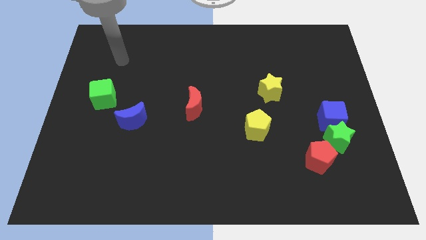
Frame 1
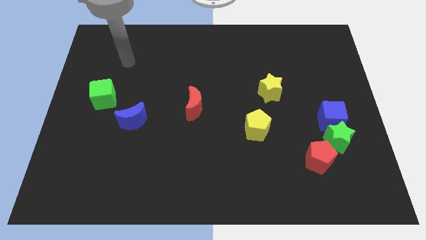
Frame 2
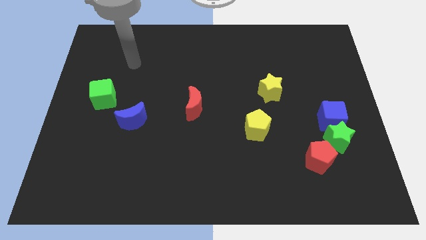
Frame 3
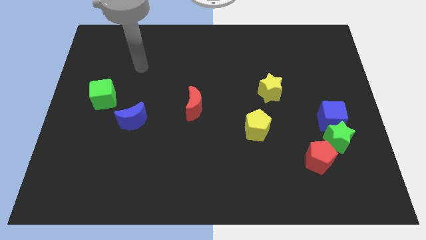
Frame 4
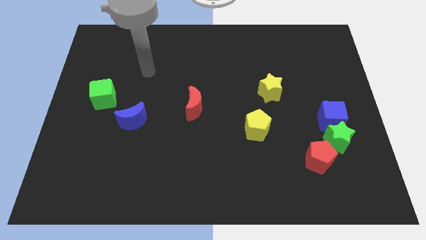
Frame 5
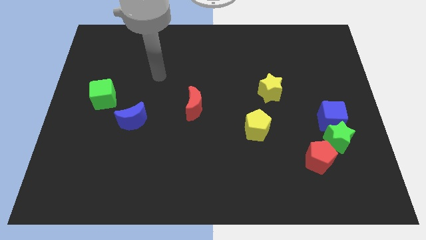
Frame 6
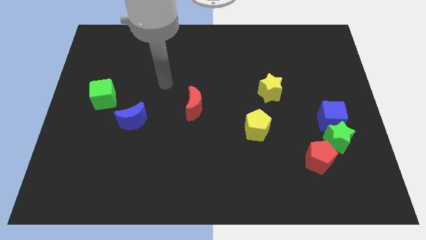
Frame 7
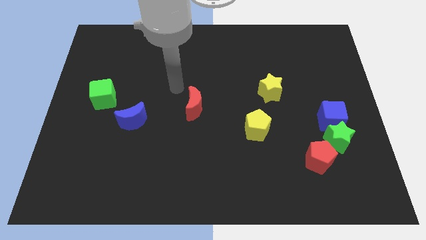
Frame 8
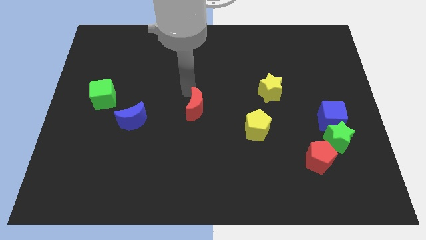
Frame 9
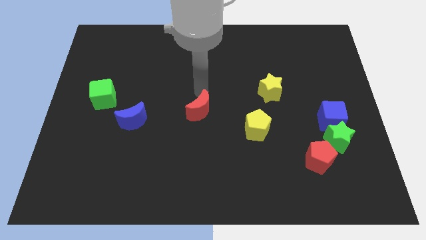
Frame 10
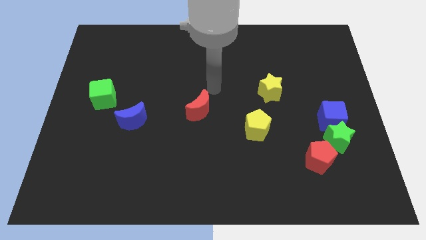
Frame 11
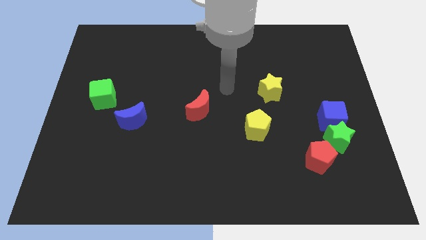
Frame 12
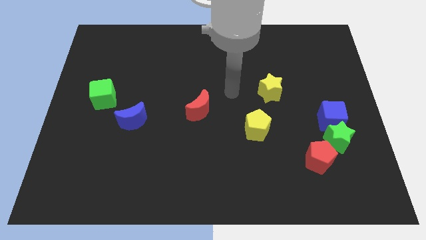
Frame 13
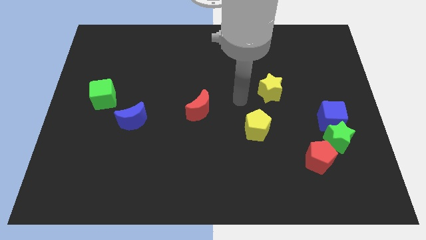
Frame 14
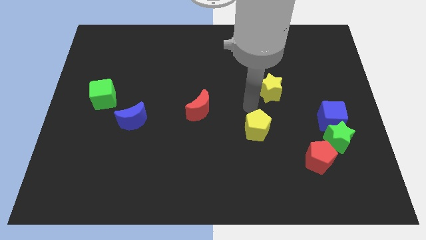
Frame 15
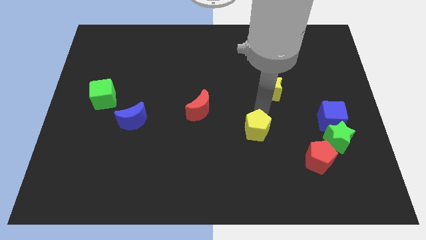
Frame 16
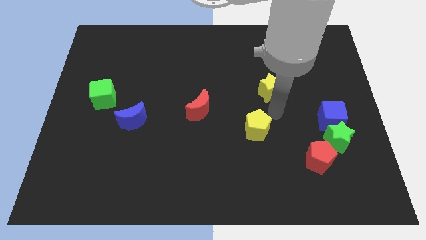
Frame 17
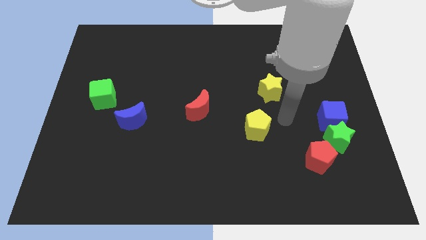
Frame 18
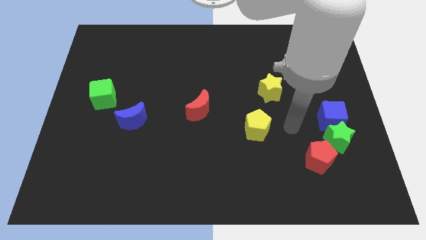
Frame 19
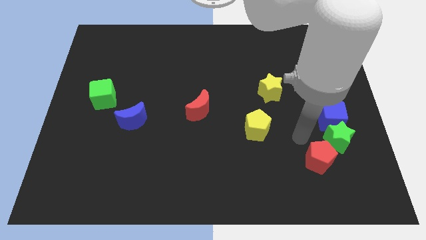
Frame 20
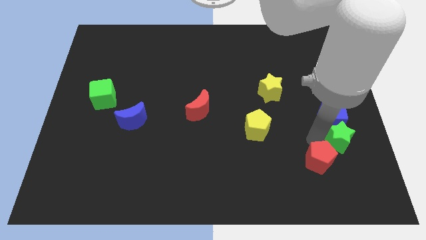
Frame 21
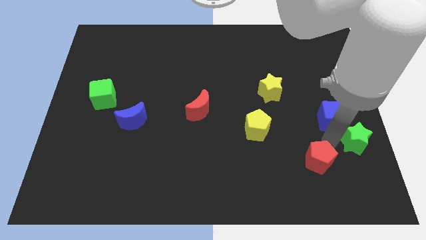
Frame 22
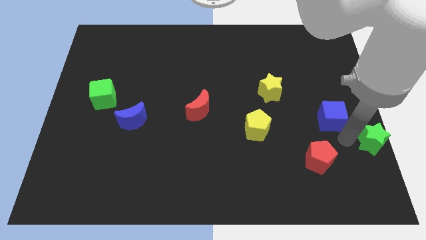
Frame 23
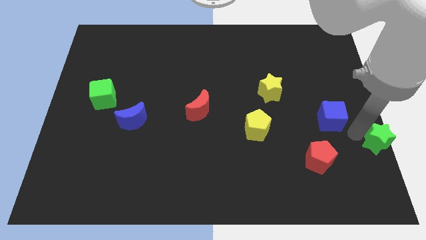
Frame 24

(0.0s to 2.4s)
pull the blue cube apart from the green star

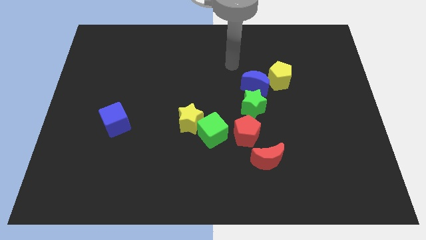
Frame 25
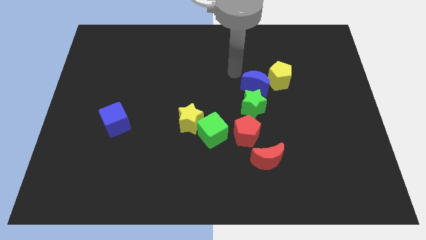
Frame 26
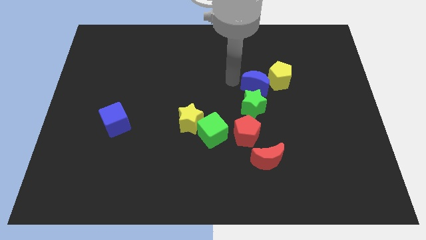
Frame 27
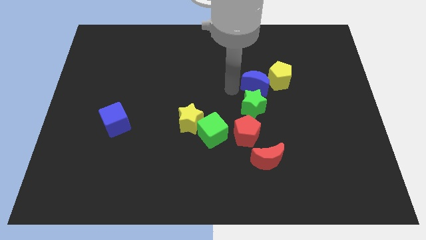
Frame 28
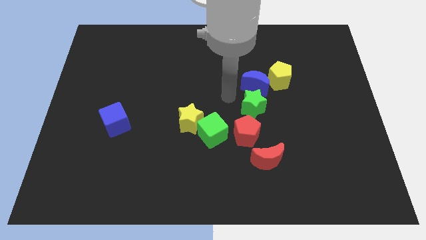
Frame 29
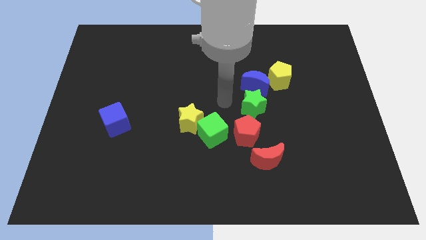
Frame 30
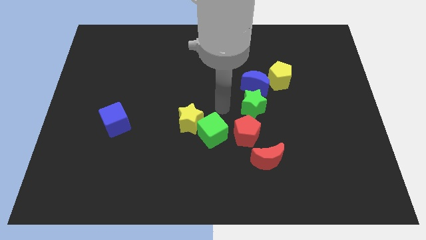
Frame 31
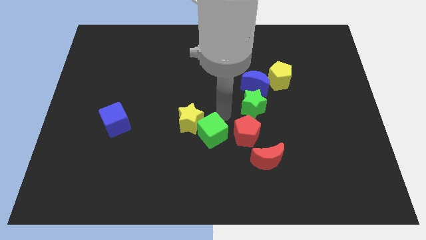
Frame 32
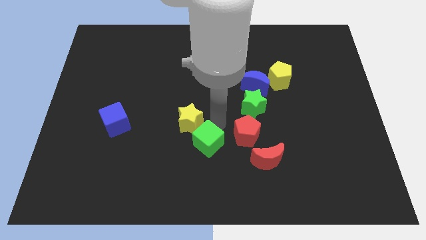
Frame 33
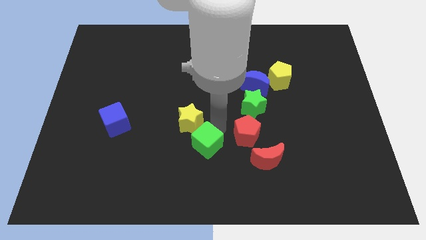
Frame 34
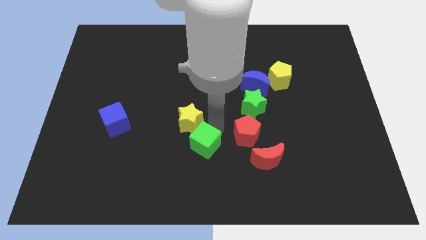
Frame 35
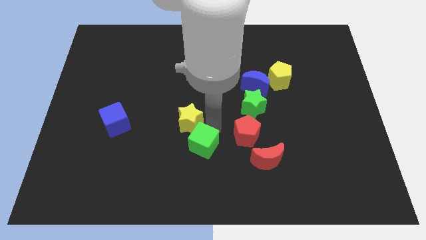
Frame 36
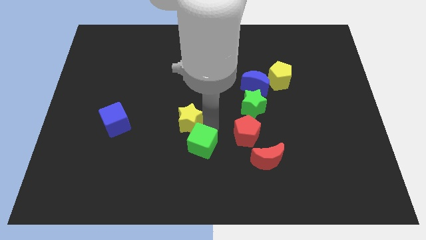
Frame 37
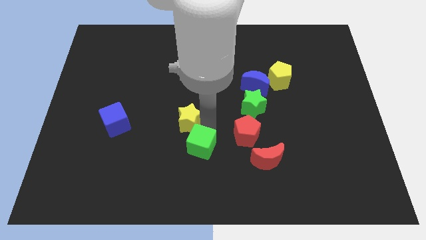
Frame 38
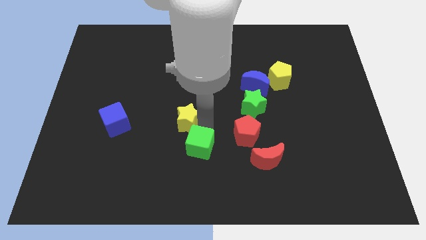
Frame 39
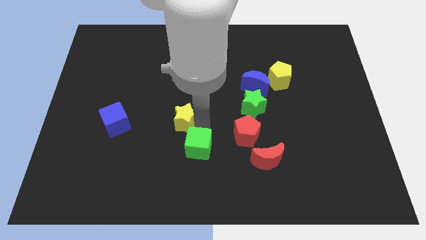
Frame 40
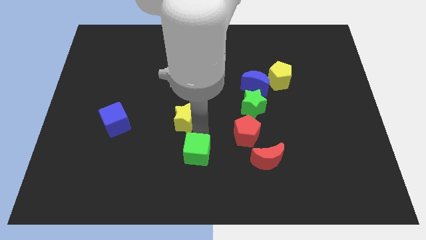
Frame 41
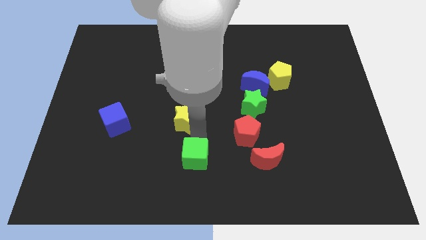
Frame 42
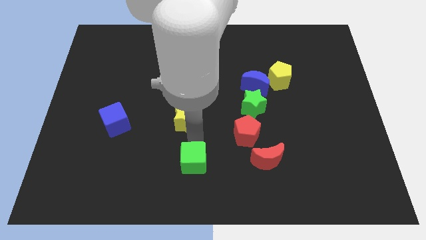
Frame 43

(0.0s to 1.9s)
separate the yellow star from the green cube

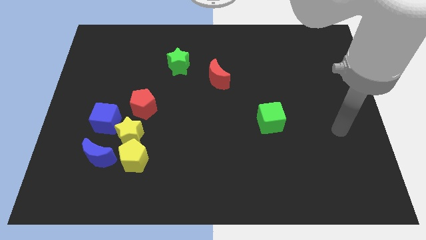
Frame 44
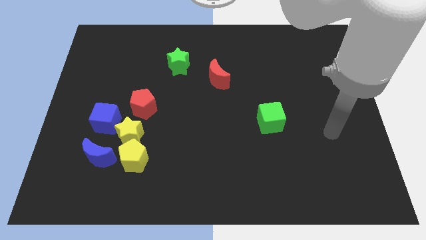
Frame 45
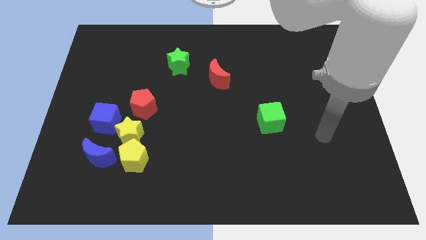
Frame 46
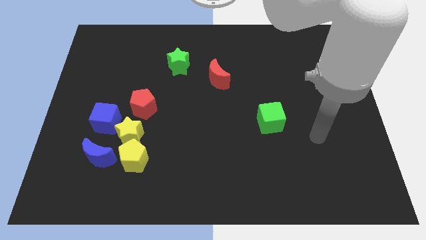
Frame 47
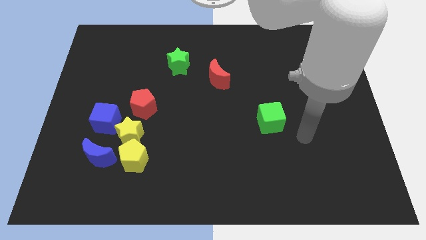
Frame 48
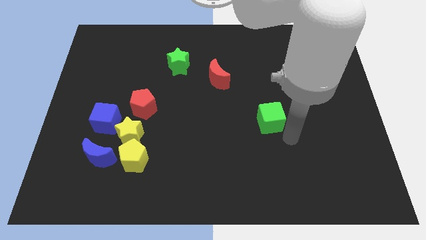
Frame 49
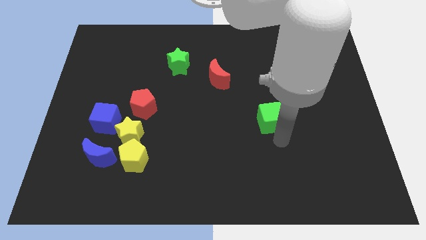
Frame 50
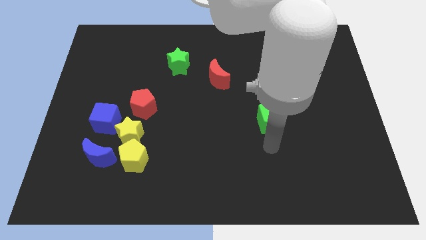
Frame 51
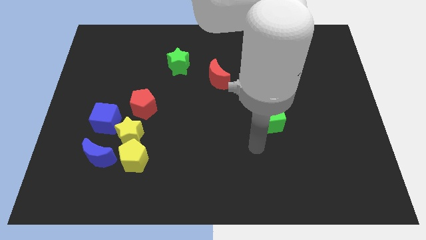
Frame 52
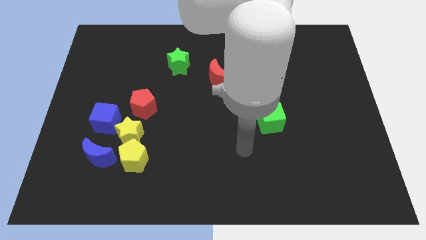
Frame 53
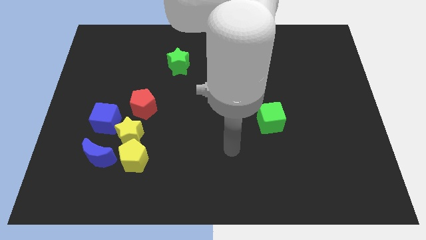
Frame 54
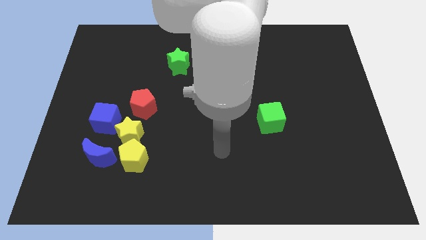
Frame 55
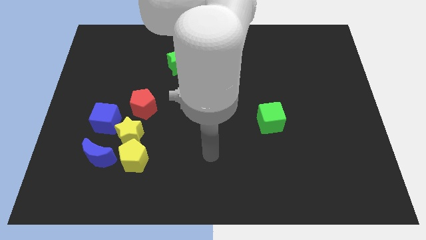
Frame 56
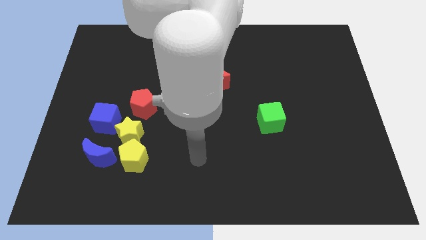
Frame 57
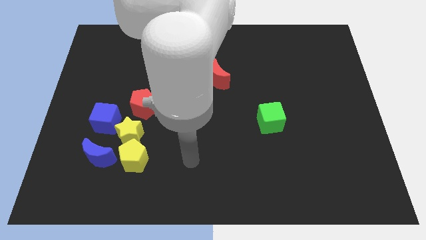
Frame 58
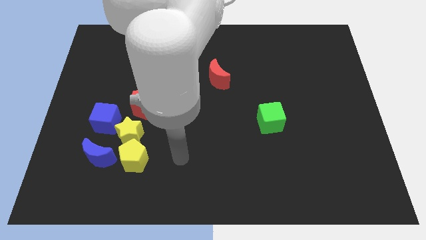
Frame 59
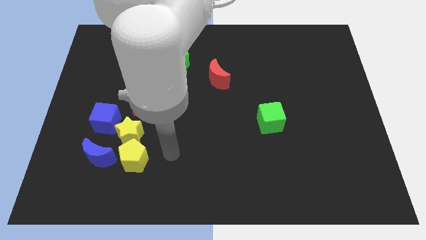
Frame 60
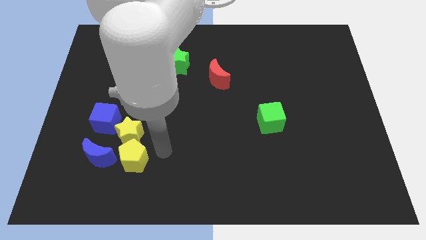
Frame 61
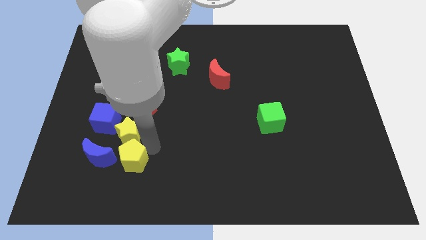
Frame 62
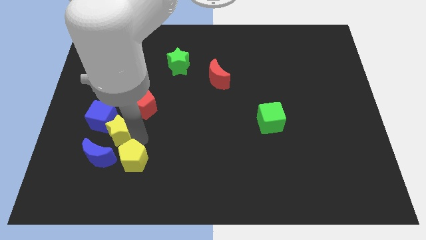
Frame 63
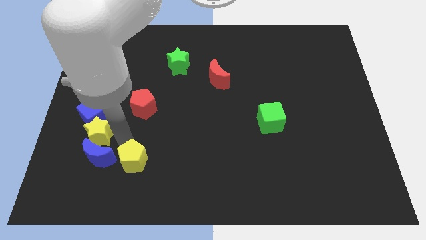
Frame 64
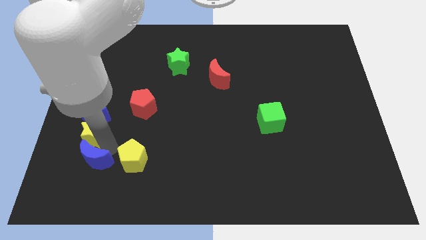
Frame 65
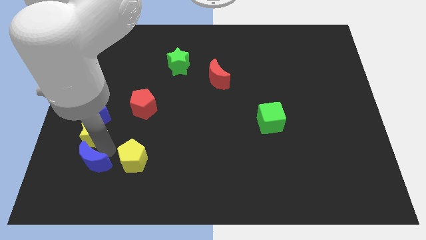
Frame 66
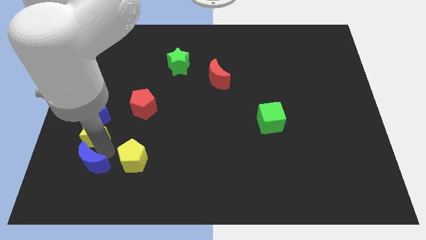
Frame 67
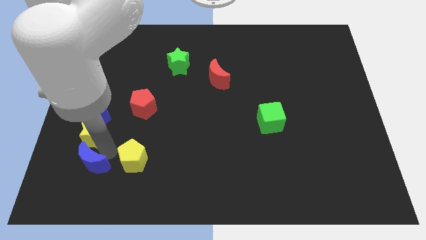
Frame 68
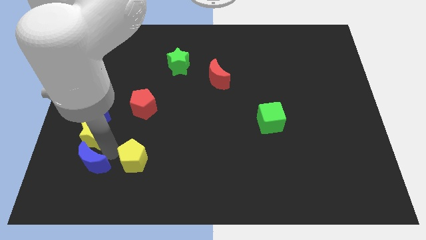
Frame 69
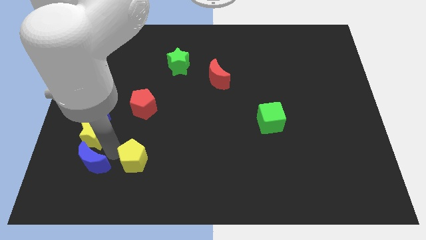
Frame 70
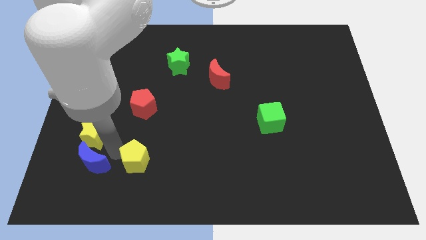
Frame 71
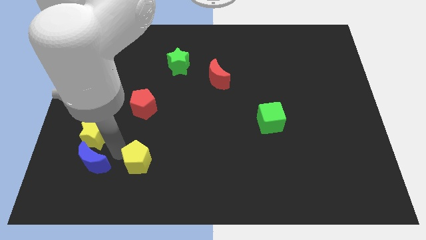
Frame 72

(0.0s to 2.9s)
pull the yellow pentagon apart from the yellow star and blue moon

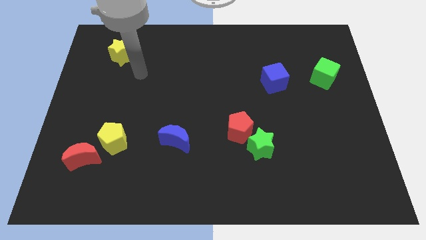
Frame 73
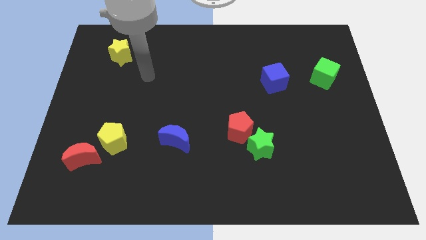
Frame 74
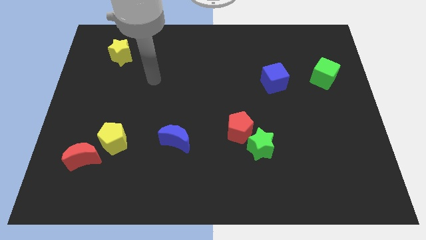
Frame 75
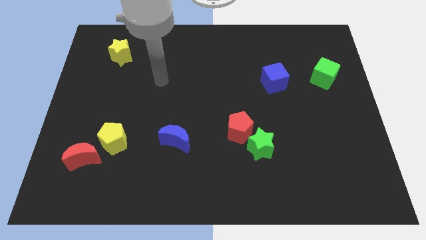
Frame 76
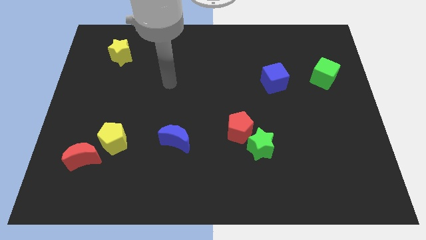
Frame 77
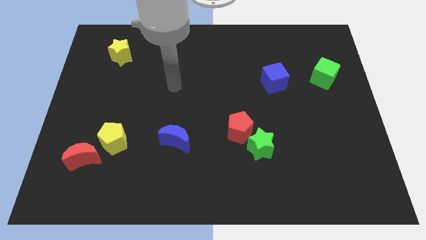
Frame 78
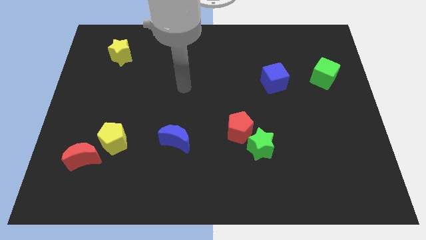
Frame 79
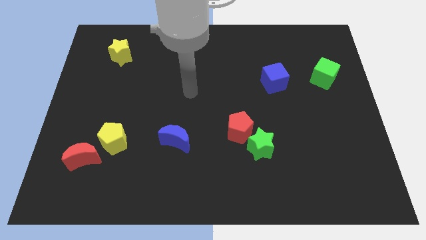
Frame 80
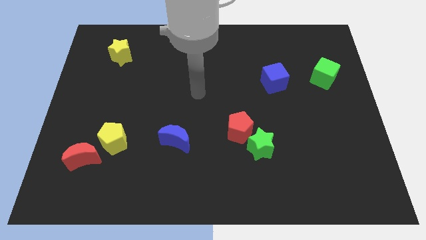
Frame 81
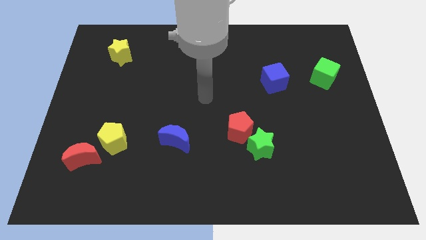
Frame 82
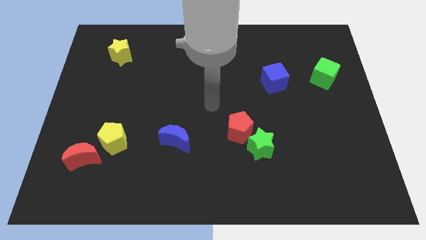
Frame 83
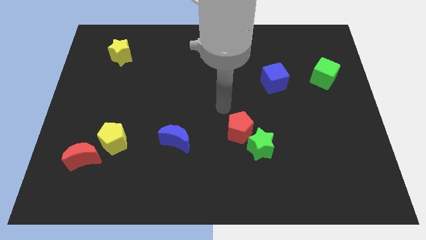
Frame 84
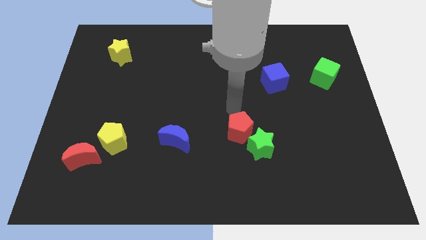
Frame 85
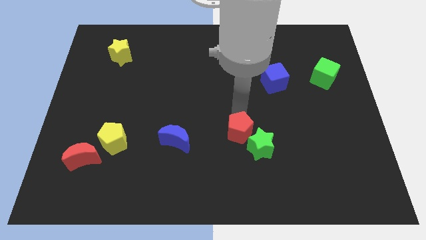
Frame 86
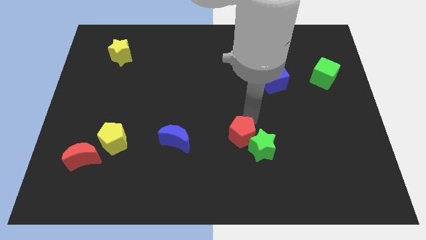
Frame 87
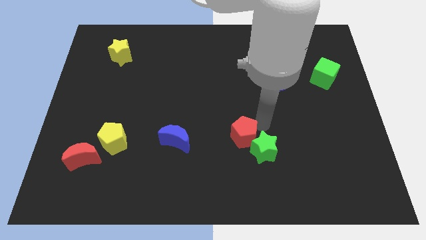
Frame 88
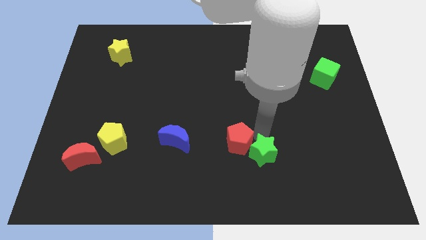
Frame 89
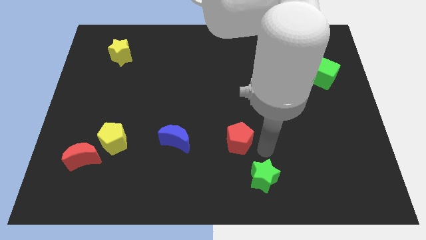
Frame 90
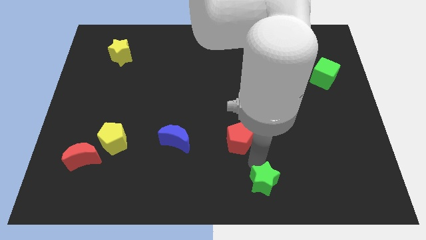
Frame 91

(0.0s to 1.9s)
separate the red pentagon from the green star

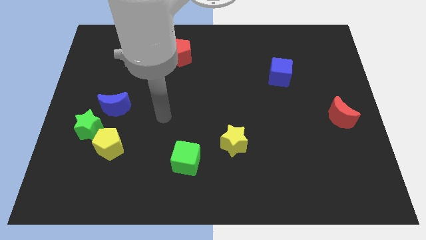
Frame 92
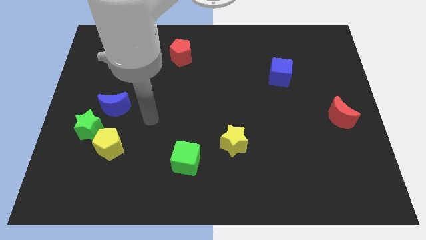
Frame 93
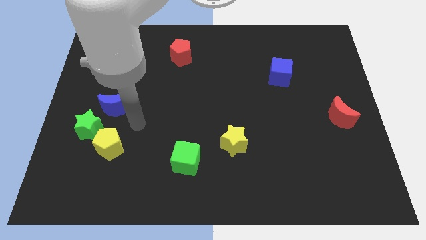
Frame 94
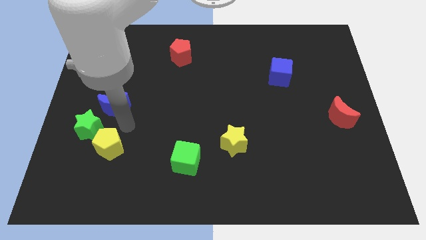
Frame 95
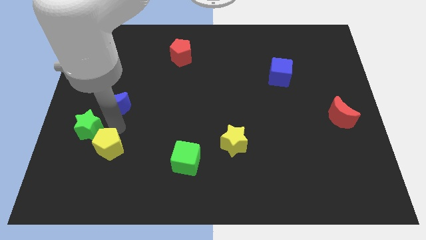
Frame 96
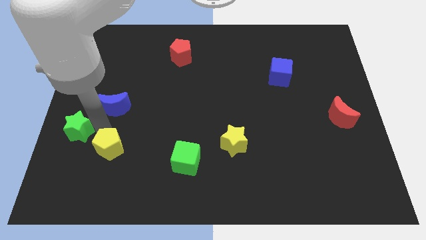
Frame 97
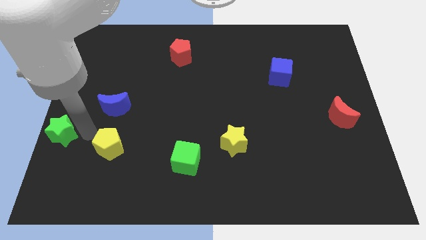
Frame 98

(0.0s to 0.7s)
separate the yellow pentagon from the green star
